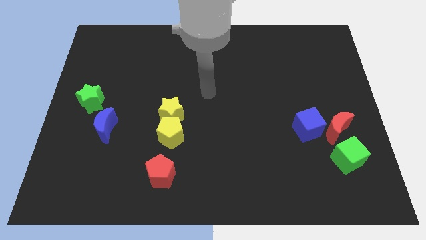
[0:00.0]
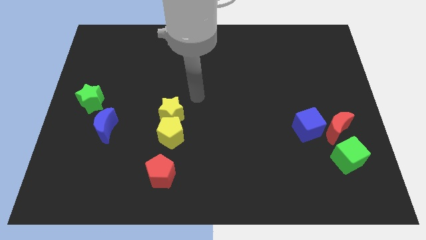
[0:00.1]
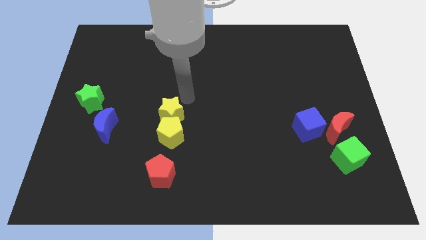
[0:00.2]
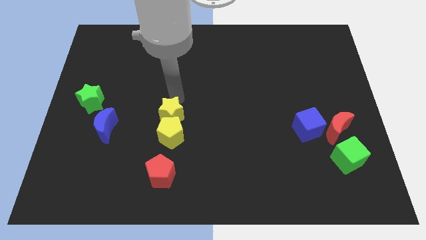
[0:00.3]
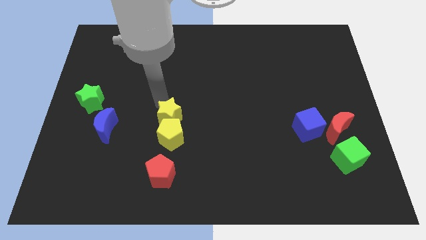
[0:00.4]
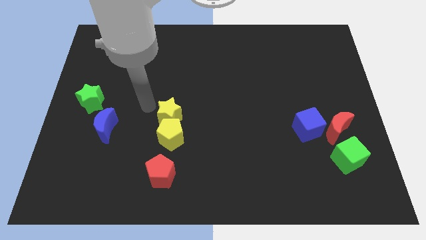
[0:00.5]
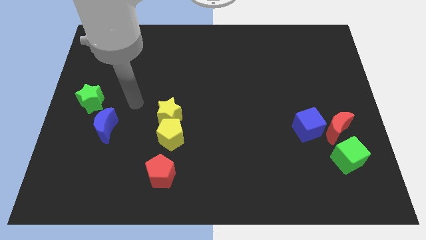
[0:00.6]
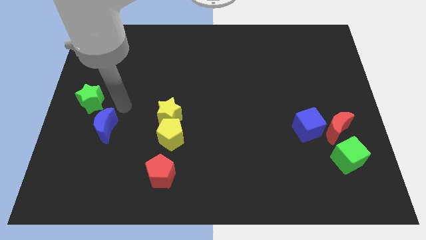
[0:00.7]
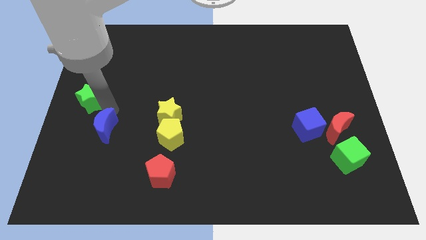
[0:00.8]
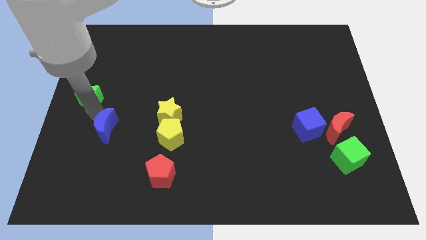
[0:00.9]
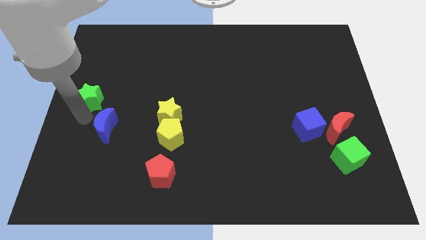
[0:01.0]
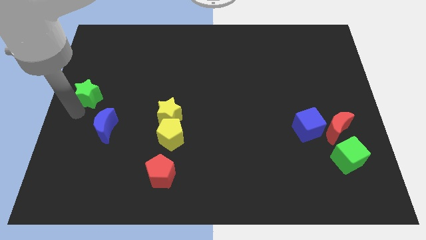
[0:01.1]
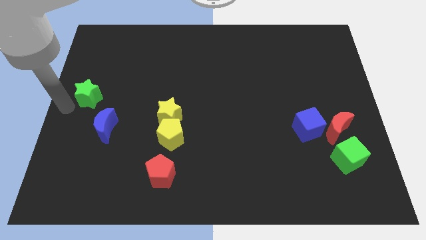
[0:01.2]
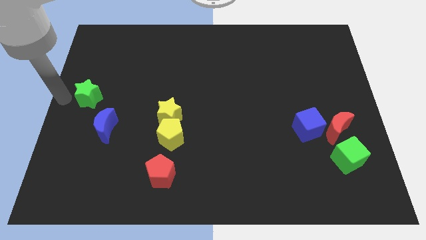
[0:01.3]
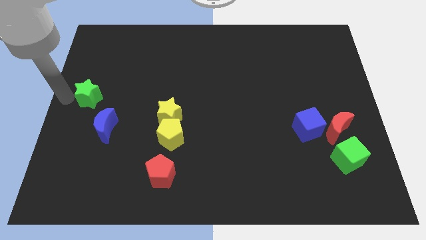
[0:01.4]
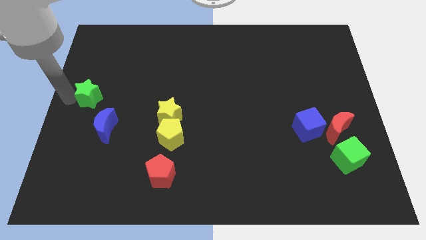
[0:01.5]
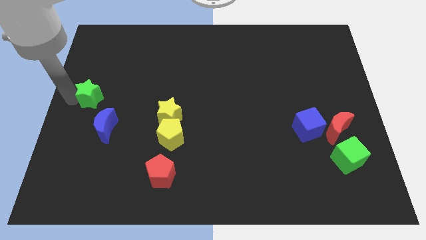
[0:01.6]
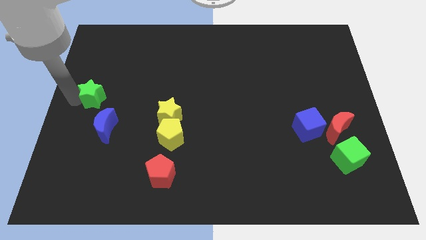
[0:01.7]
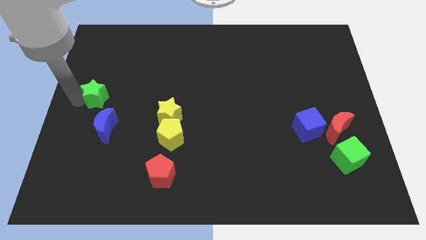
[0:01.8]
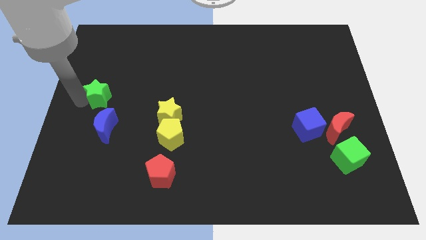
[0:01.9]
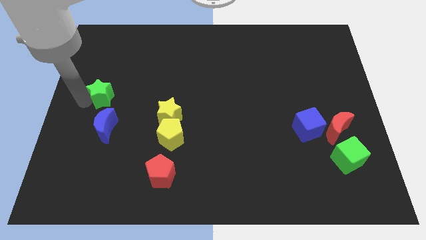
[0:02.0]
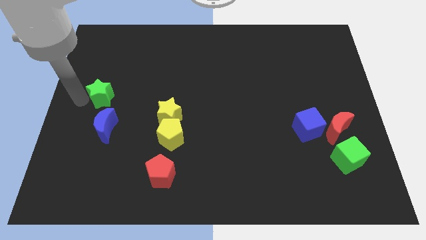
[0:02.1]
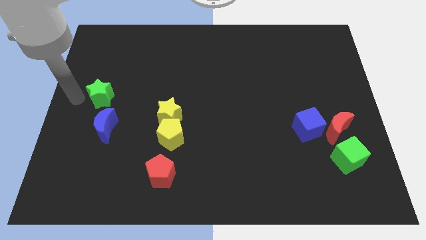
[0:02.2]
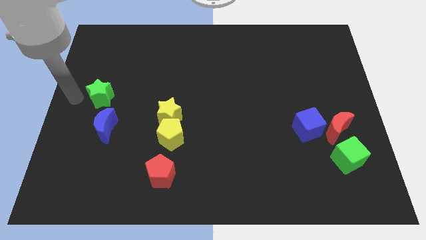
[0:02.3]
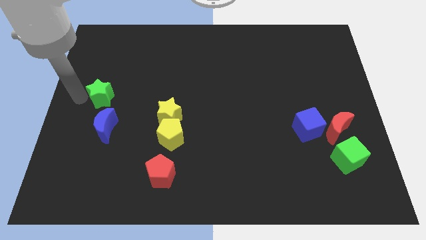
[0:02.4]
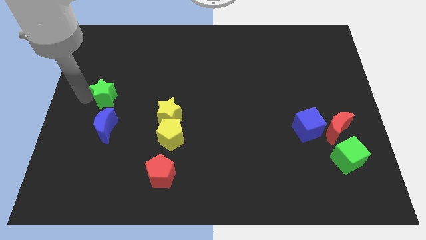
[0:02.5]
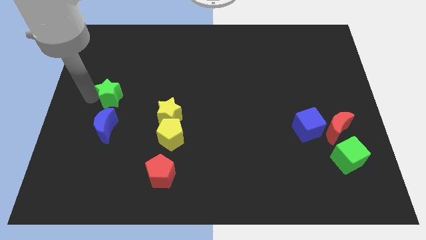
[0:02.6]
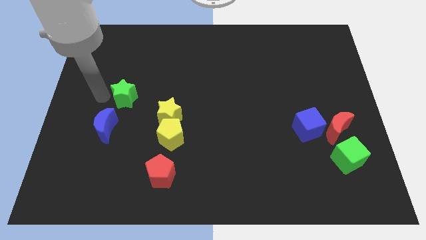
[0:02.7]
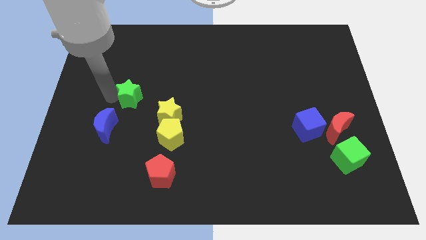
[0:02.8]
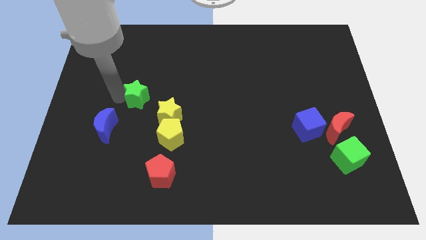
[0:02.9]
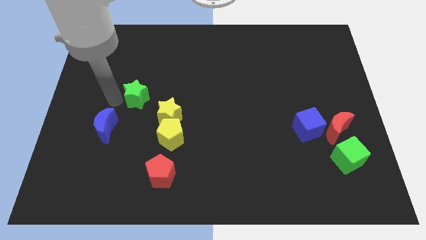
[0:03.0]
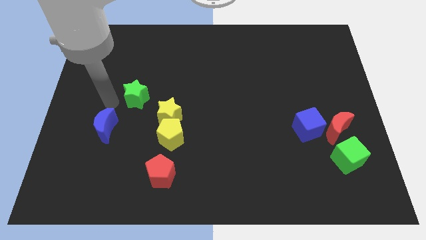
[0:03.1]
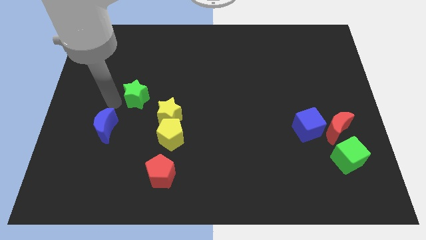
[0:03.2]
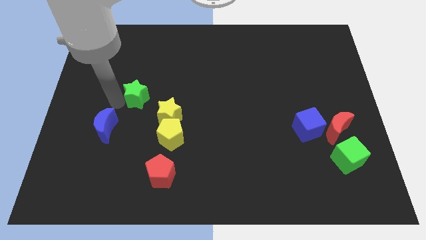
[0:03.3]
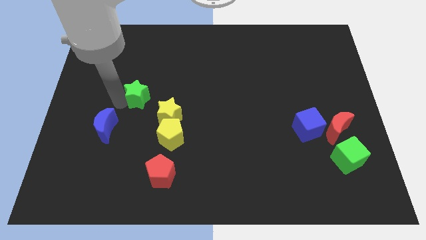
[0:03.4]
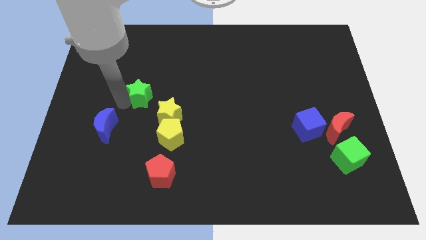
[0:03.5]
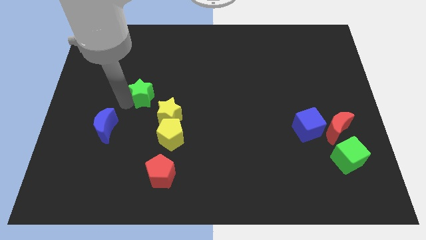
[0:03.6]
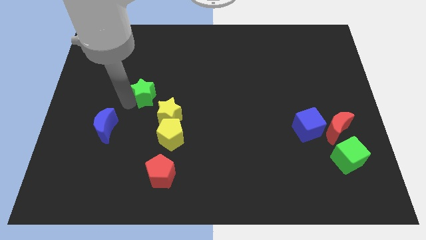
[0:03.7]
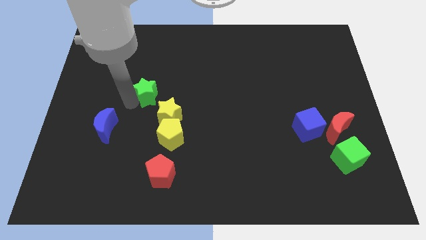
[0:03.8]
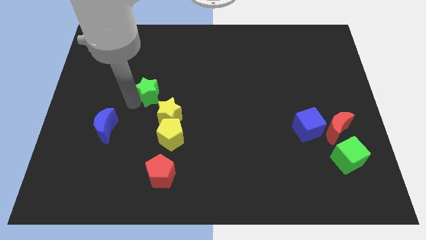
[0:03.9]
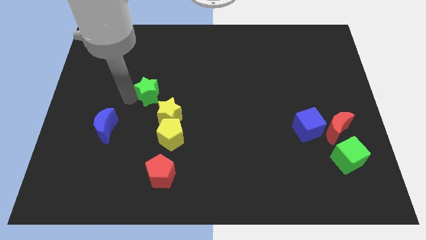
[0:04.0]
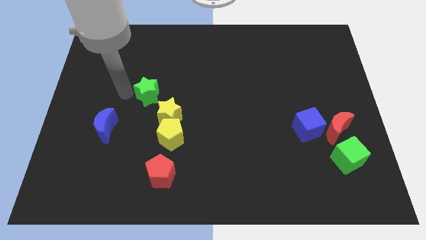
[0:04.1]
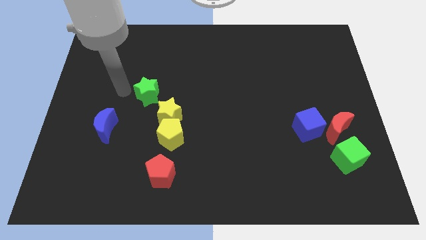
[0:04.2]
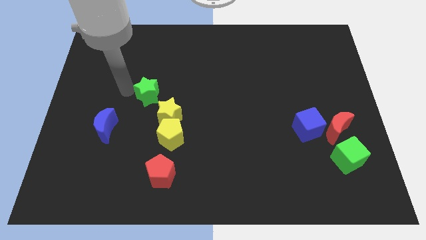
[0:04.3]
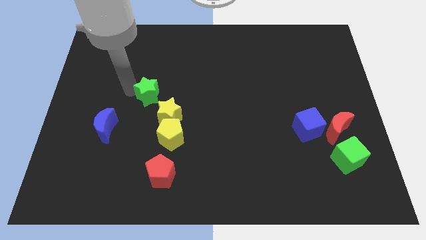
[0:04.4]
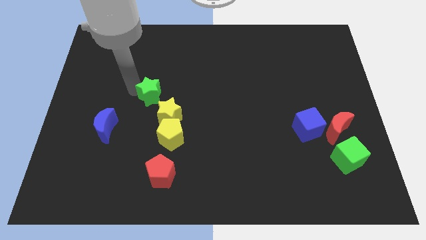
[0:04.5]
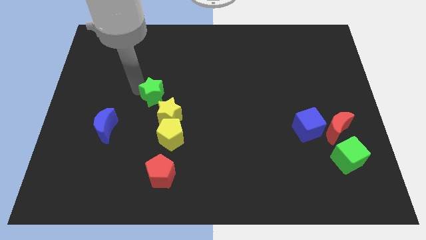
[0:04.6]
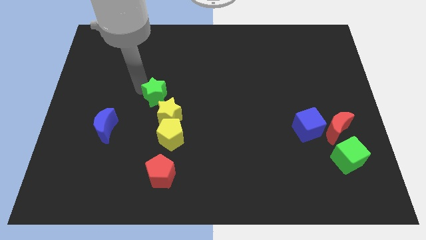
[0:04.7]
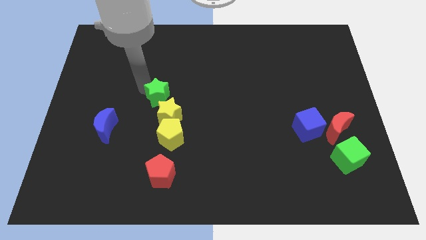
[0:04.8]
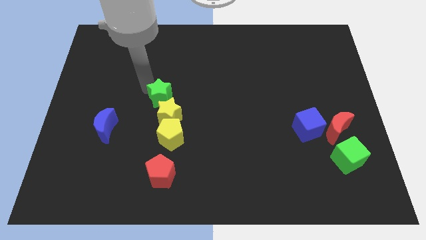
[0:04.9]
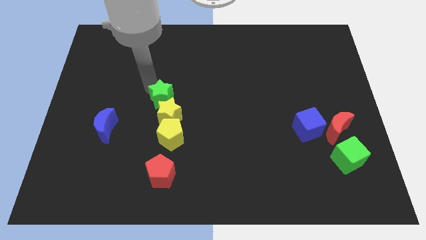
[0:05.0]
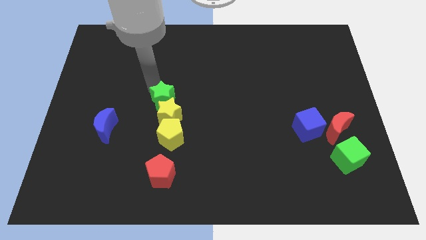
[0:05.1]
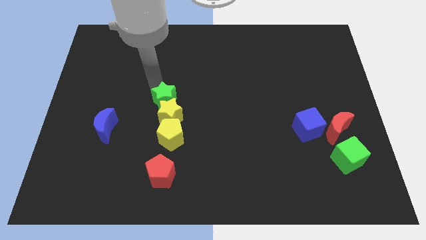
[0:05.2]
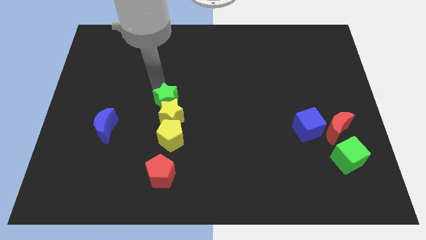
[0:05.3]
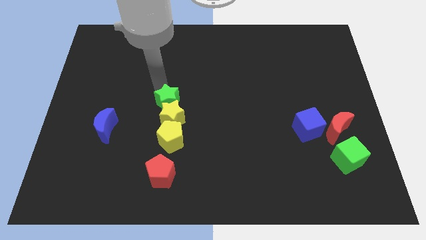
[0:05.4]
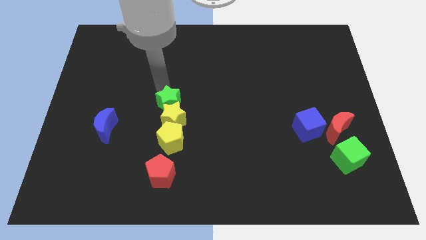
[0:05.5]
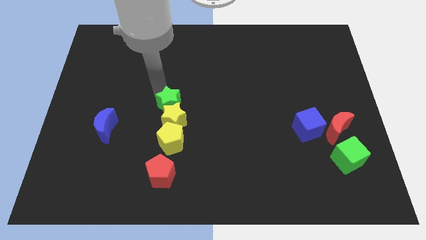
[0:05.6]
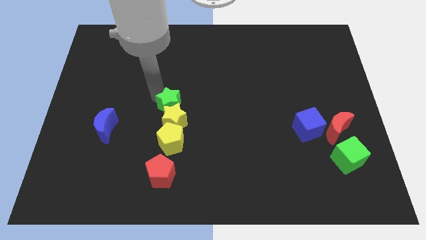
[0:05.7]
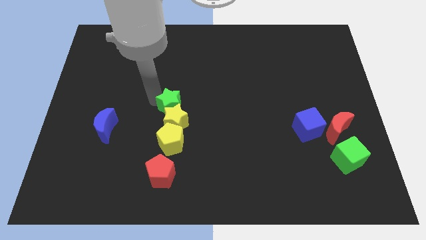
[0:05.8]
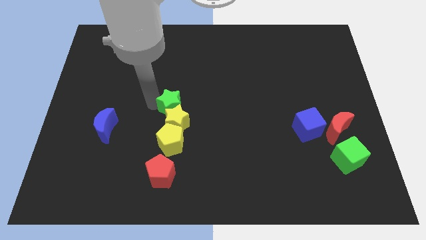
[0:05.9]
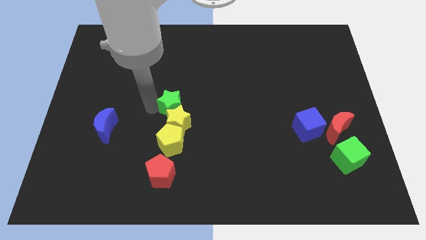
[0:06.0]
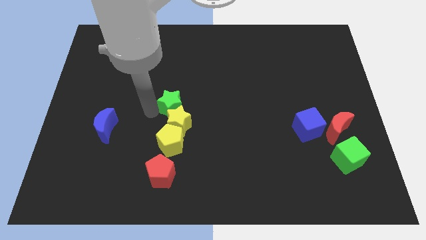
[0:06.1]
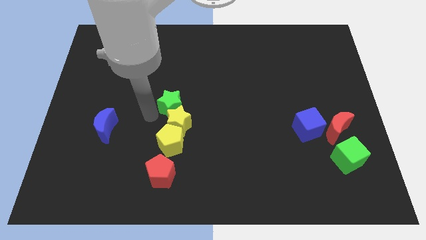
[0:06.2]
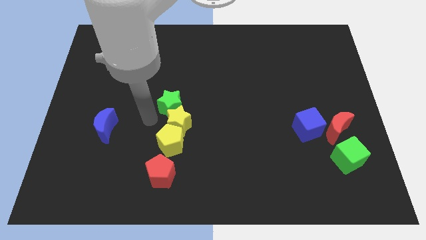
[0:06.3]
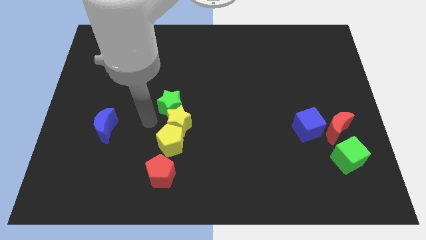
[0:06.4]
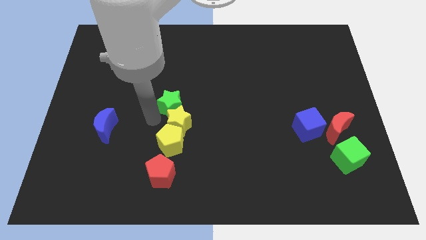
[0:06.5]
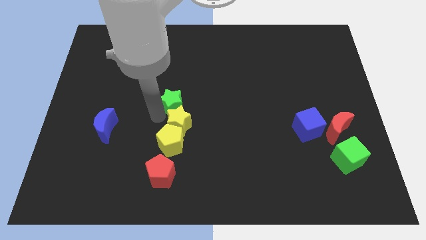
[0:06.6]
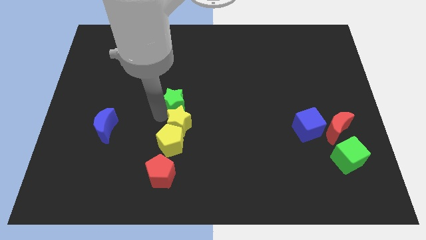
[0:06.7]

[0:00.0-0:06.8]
push the green star right

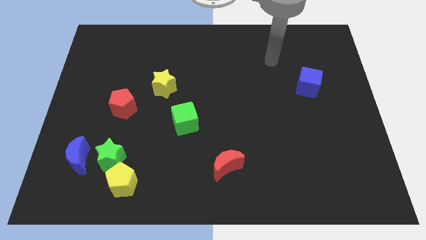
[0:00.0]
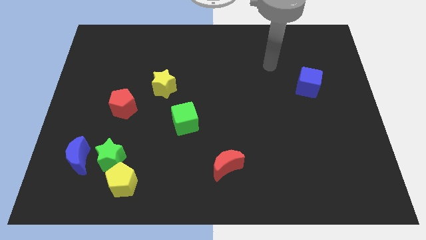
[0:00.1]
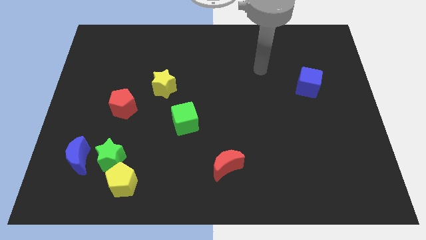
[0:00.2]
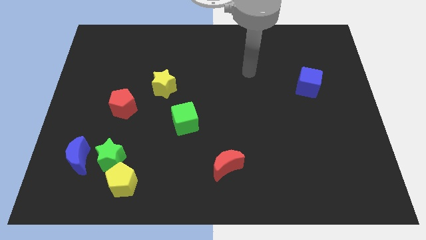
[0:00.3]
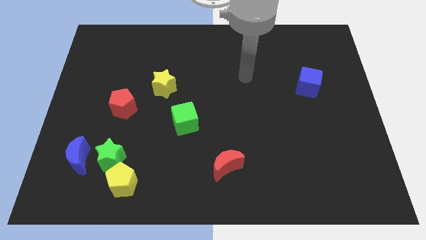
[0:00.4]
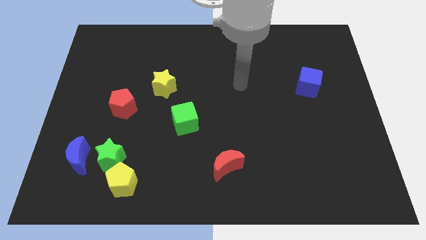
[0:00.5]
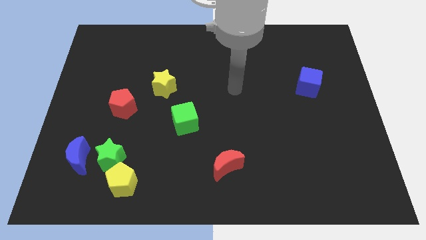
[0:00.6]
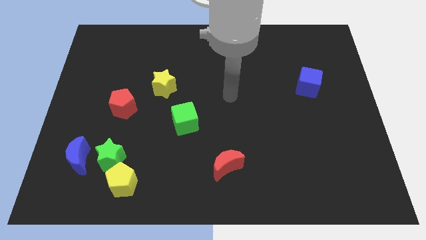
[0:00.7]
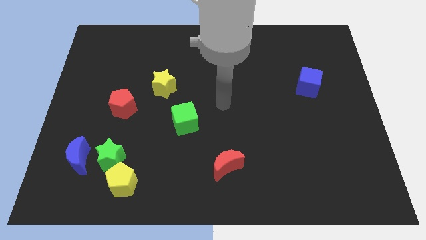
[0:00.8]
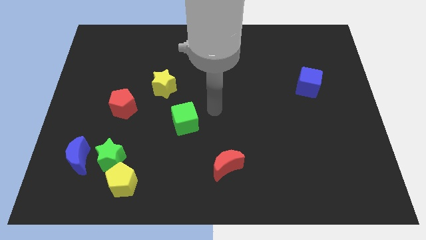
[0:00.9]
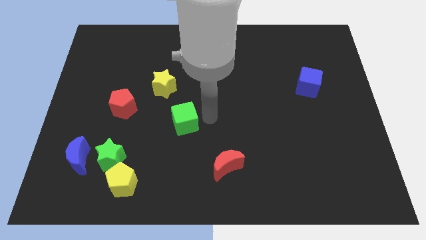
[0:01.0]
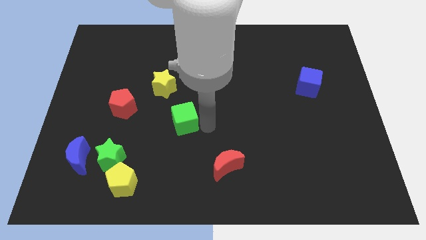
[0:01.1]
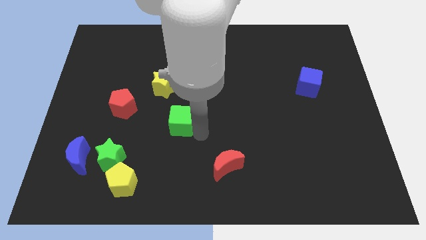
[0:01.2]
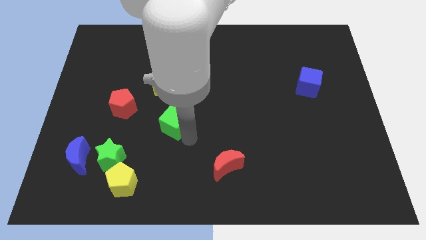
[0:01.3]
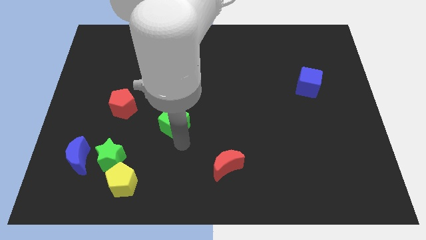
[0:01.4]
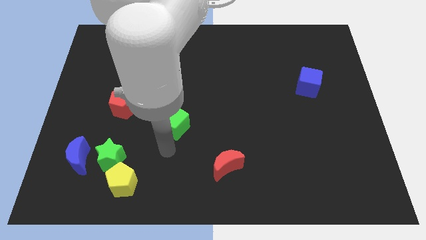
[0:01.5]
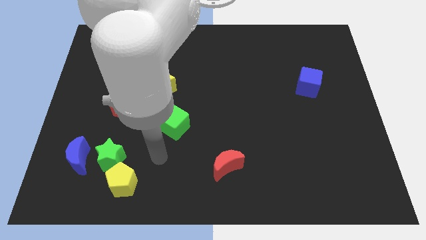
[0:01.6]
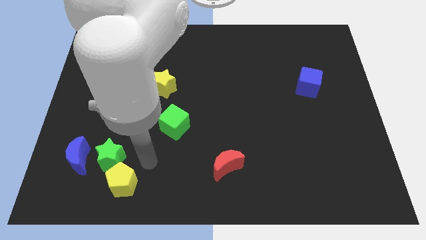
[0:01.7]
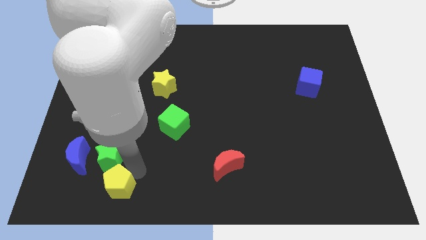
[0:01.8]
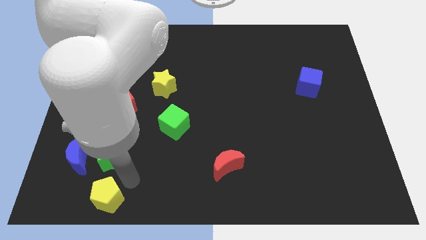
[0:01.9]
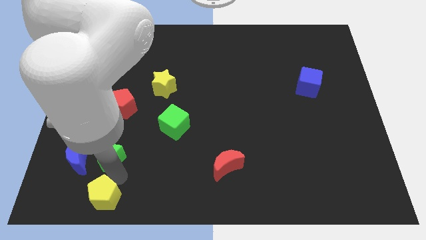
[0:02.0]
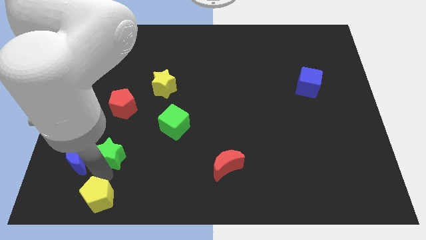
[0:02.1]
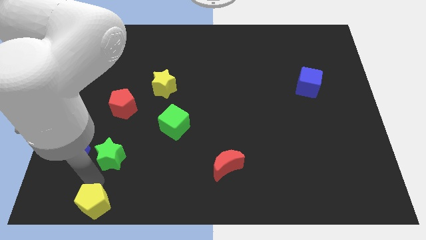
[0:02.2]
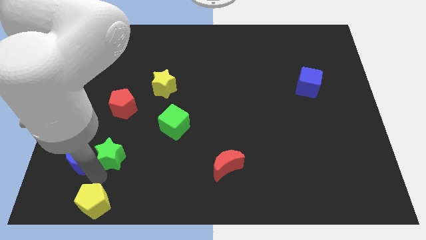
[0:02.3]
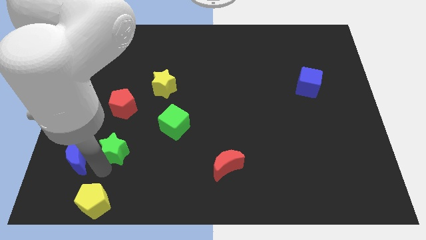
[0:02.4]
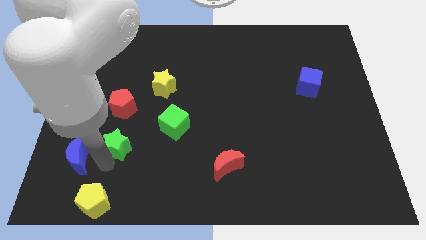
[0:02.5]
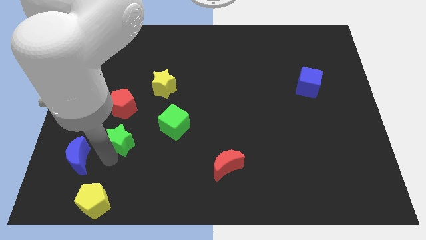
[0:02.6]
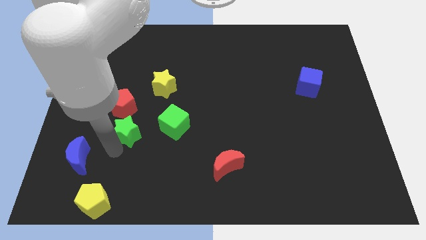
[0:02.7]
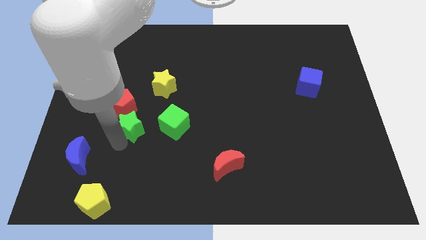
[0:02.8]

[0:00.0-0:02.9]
slightly push the green star upwards and then to the right
